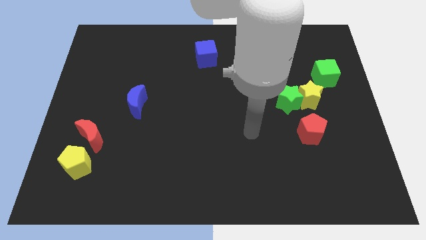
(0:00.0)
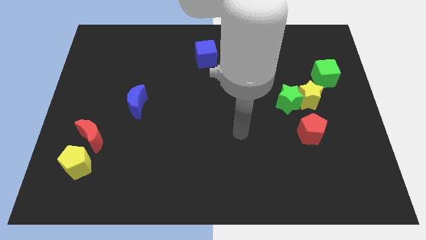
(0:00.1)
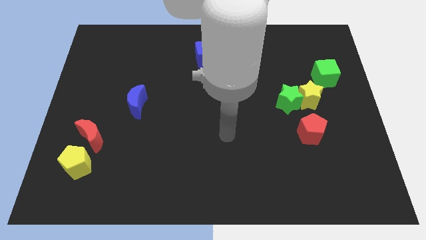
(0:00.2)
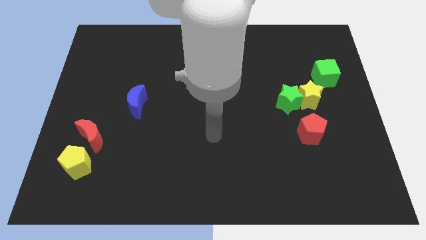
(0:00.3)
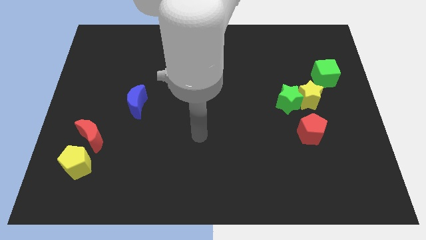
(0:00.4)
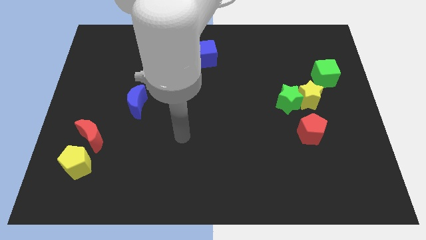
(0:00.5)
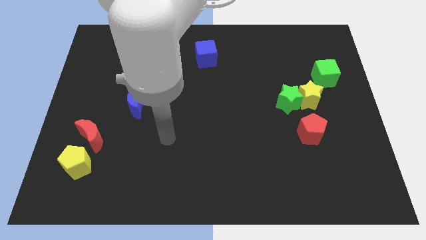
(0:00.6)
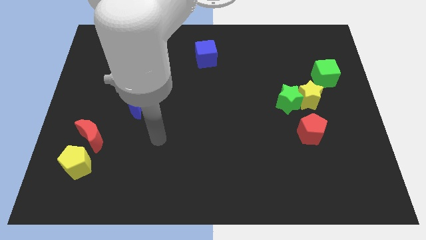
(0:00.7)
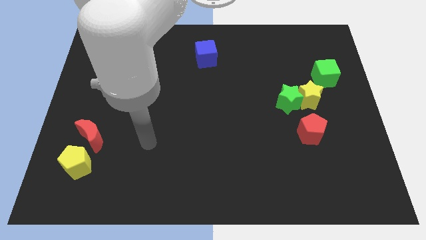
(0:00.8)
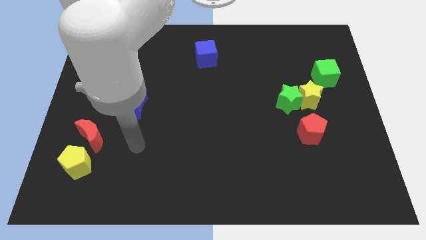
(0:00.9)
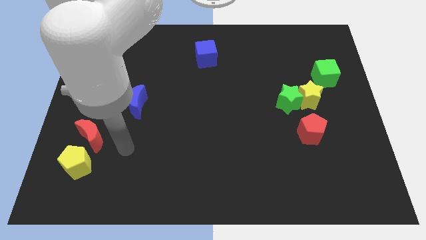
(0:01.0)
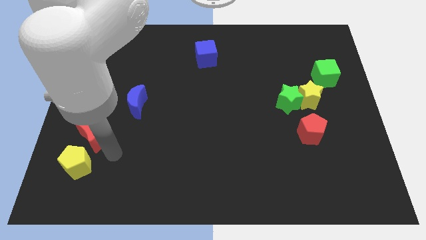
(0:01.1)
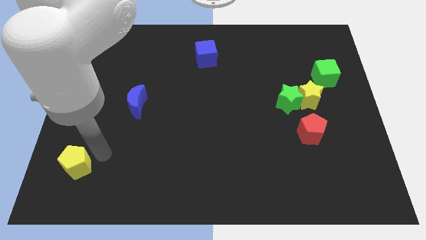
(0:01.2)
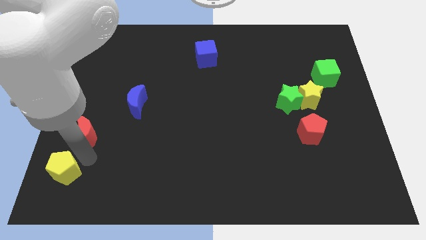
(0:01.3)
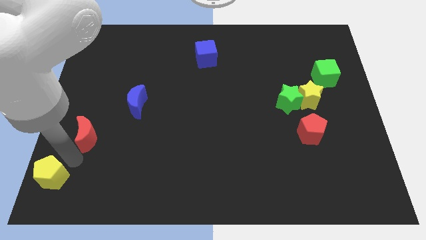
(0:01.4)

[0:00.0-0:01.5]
move the red moon away from the yellow pentagon

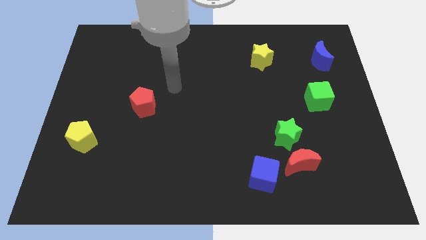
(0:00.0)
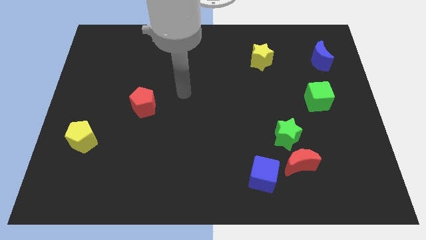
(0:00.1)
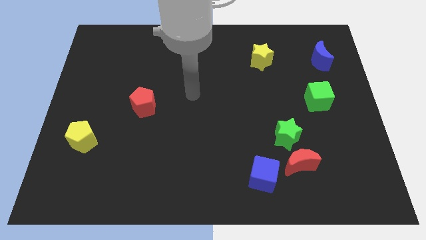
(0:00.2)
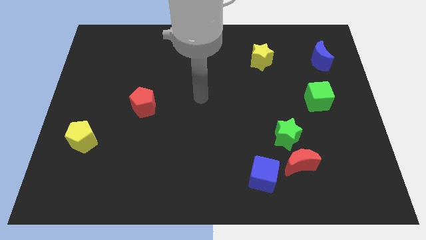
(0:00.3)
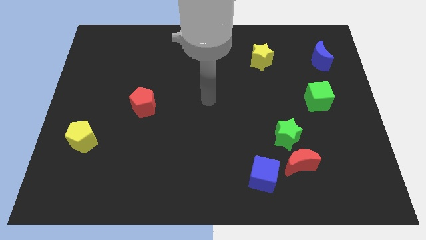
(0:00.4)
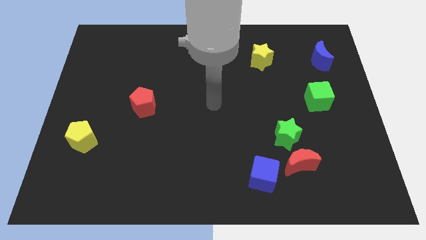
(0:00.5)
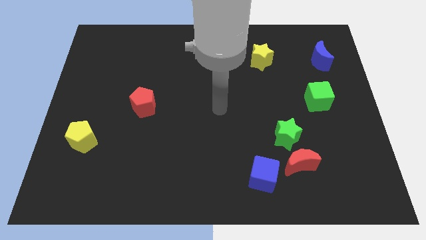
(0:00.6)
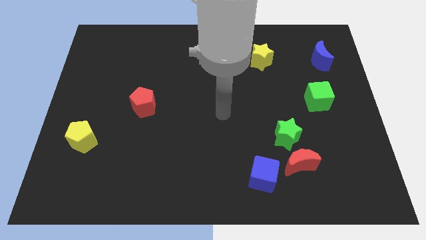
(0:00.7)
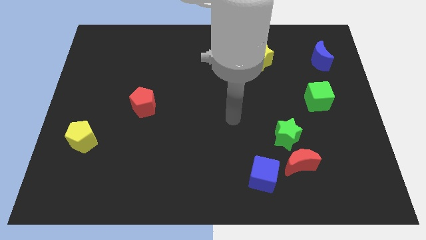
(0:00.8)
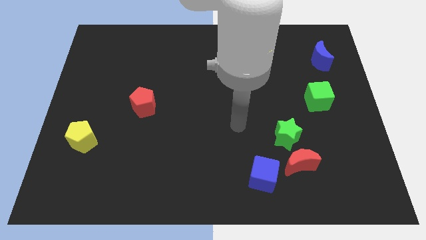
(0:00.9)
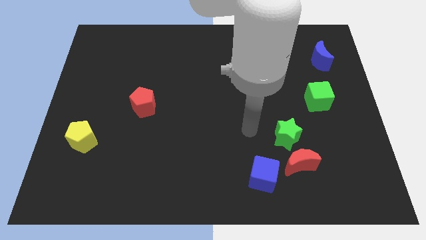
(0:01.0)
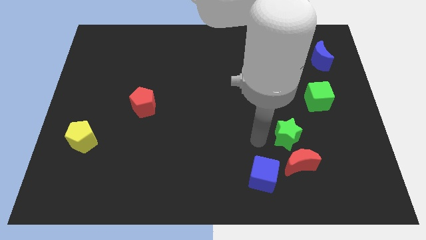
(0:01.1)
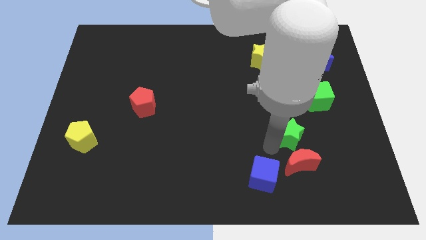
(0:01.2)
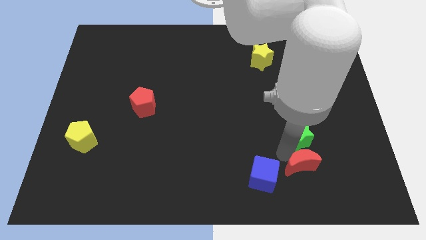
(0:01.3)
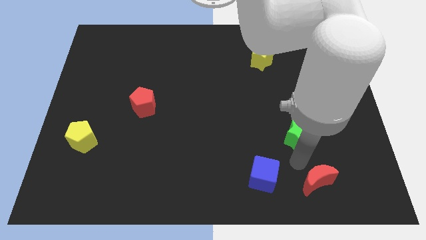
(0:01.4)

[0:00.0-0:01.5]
pull the green star apart from the red moon

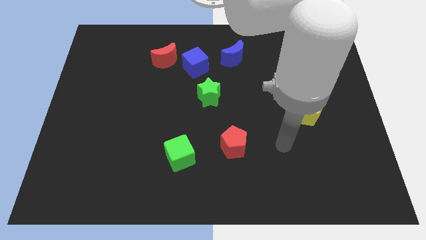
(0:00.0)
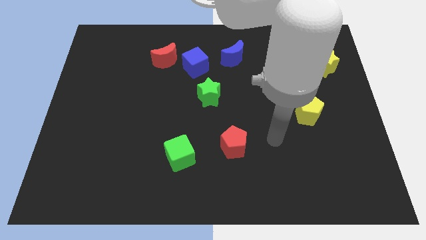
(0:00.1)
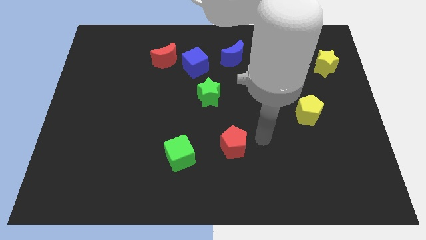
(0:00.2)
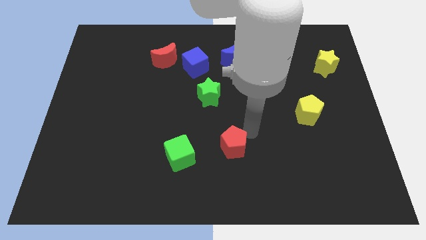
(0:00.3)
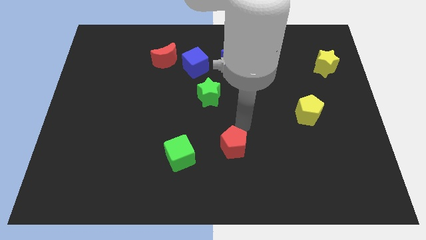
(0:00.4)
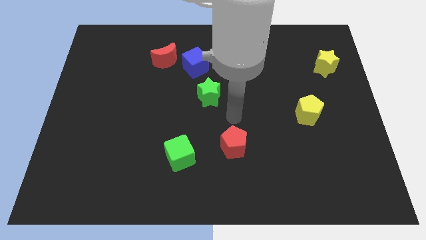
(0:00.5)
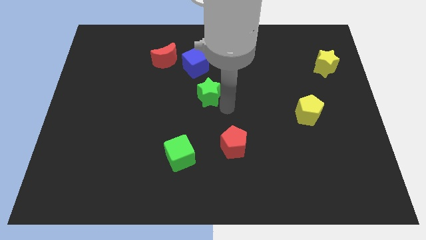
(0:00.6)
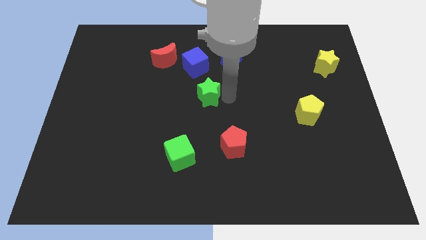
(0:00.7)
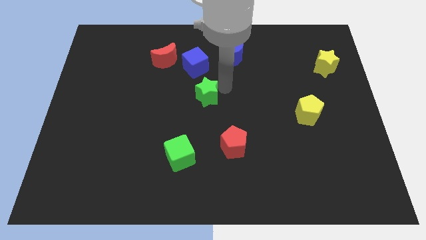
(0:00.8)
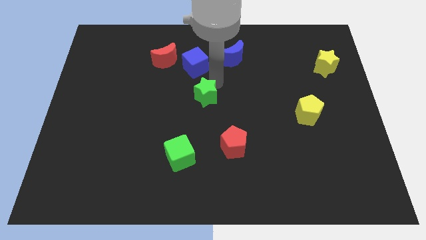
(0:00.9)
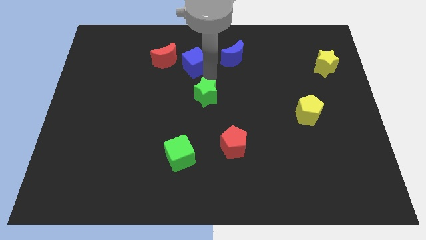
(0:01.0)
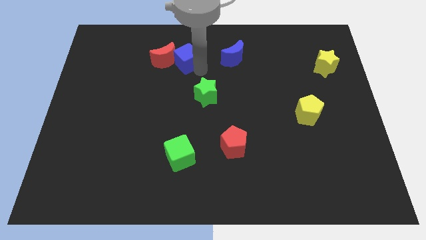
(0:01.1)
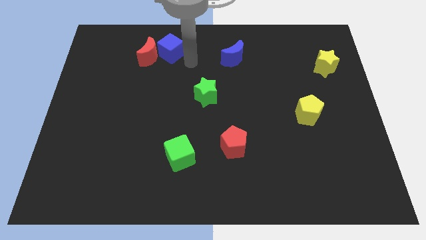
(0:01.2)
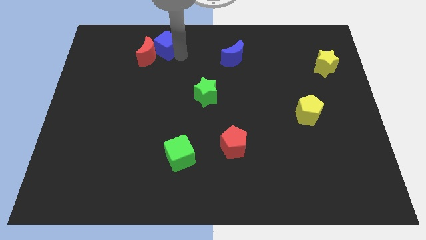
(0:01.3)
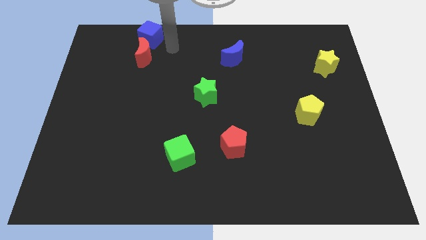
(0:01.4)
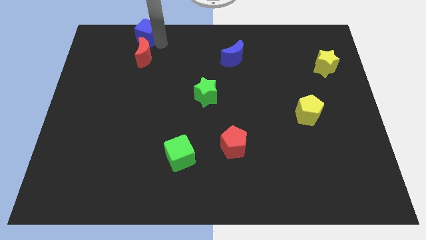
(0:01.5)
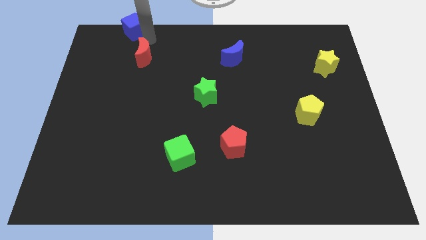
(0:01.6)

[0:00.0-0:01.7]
pull the red moon apart from the blue cube

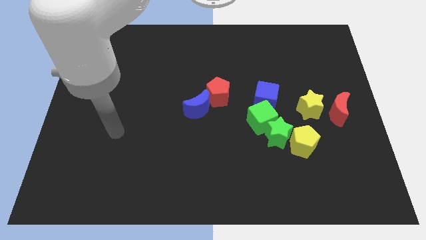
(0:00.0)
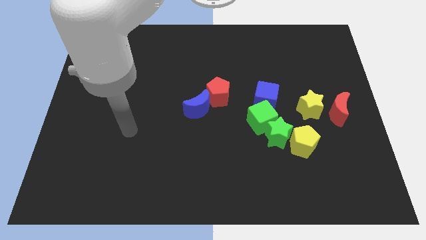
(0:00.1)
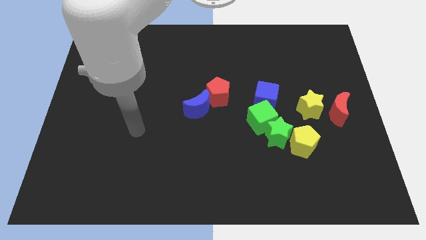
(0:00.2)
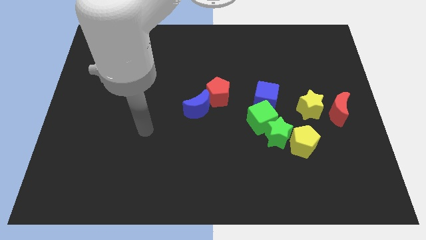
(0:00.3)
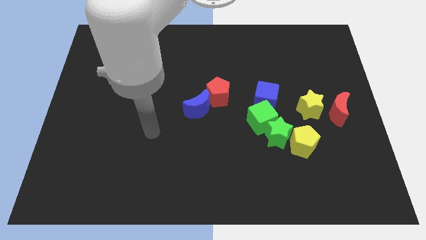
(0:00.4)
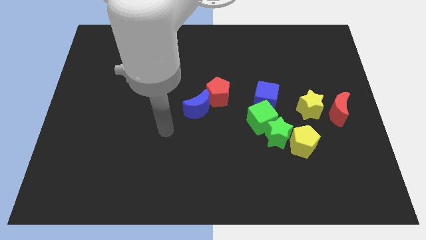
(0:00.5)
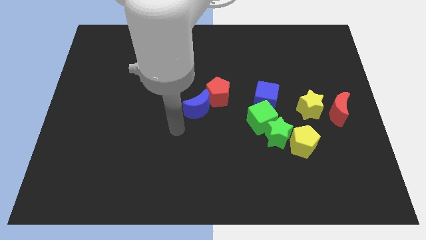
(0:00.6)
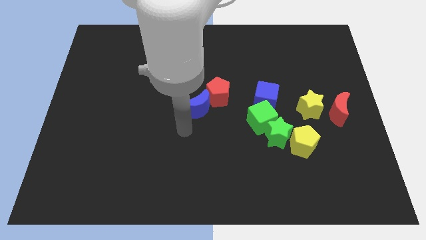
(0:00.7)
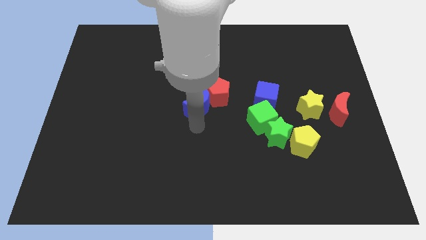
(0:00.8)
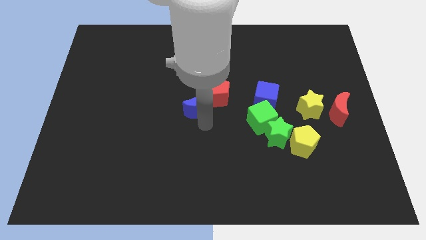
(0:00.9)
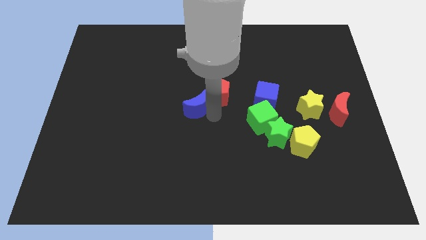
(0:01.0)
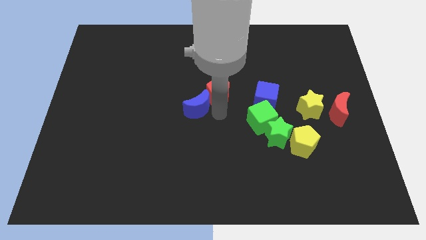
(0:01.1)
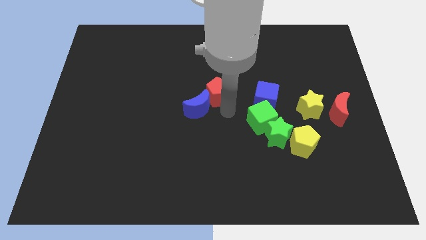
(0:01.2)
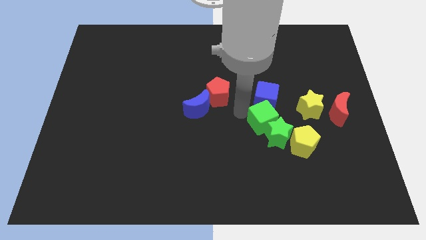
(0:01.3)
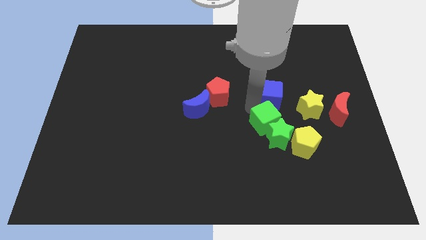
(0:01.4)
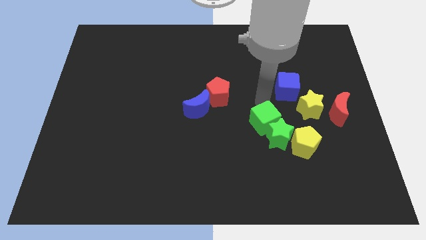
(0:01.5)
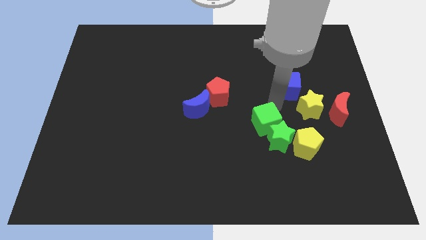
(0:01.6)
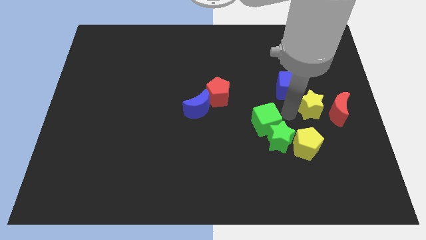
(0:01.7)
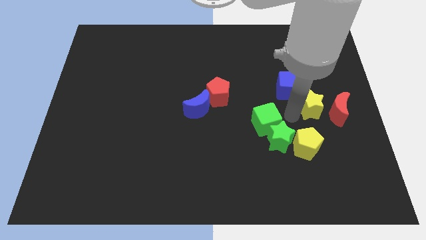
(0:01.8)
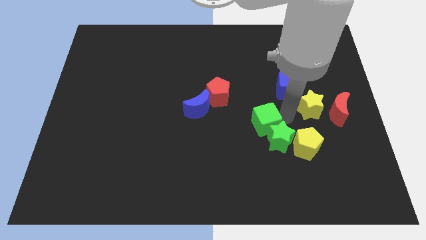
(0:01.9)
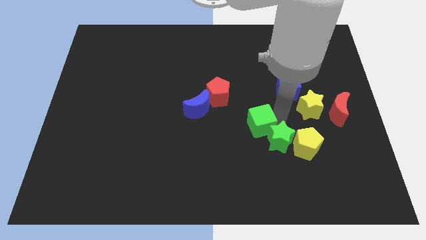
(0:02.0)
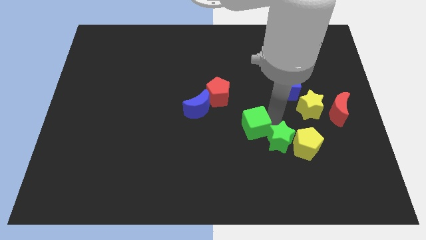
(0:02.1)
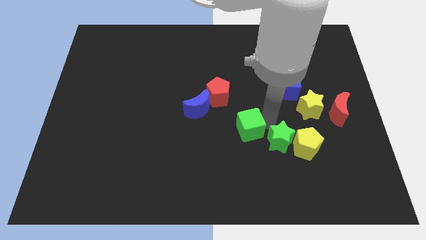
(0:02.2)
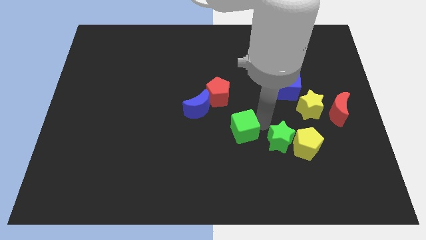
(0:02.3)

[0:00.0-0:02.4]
pull the green cube apart from the green star and blue cube

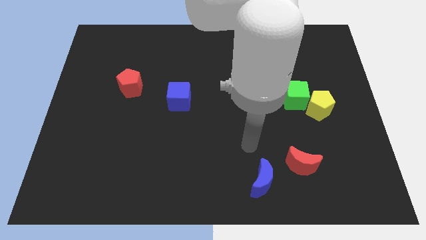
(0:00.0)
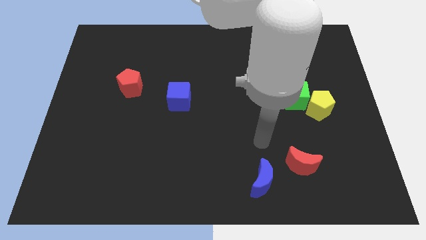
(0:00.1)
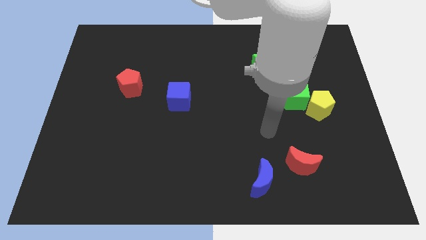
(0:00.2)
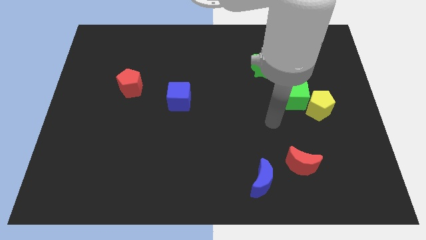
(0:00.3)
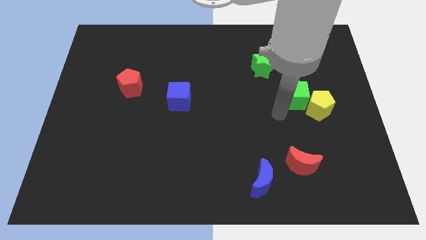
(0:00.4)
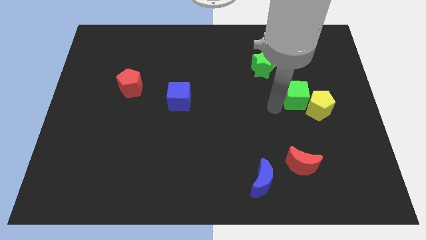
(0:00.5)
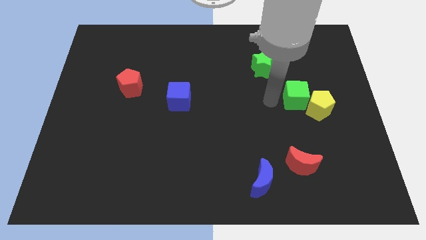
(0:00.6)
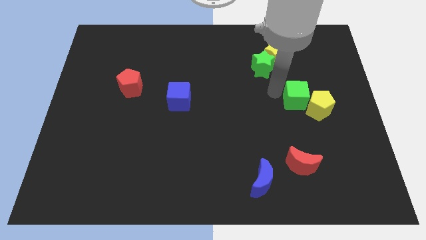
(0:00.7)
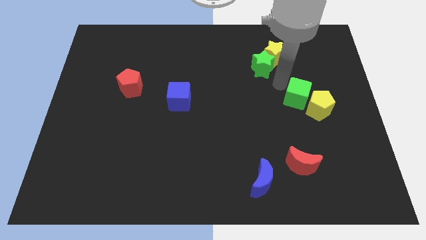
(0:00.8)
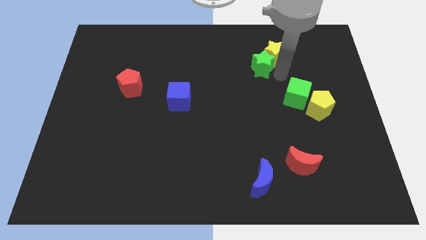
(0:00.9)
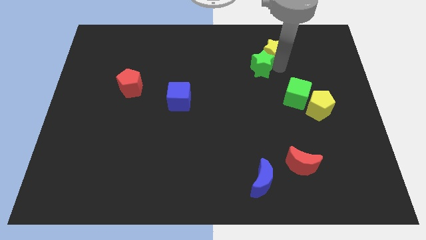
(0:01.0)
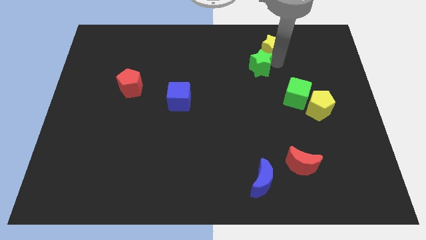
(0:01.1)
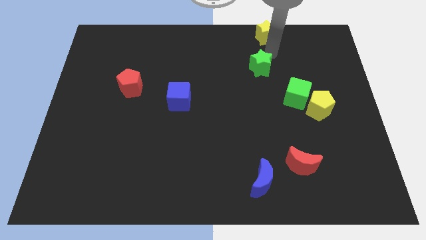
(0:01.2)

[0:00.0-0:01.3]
separate the green star from the yellow star

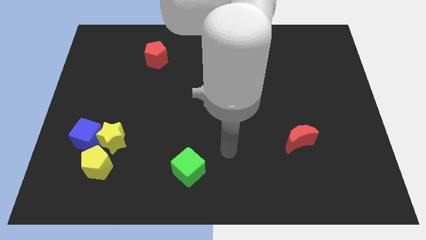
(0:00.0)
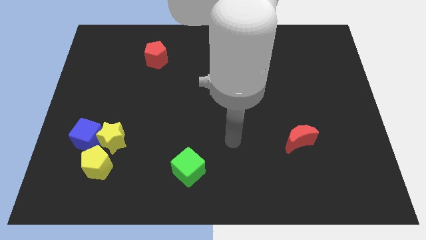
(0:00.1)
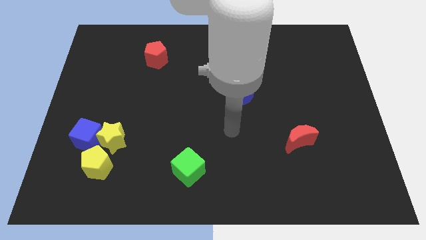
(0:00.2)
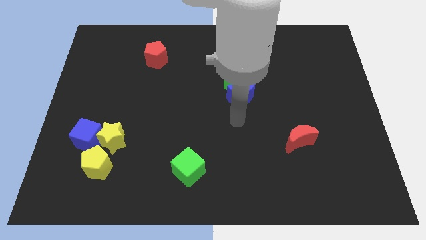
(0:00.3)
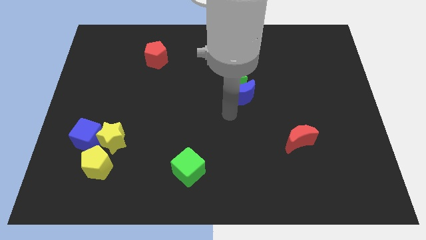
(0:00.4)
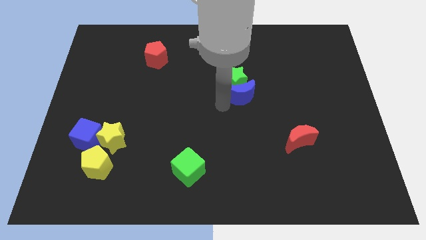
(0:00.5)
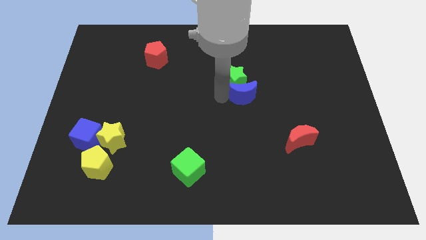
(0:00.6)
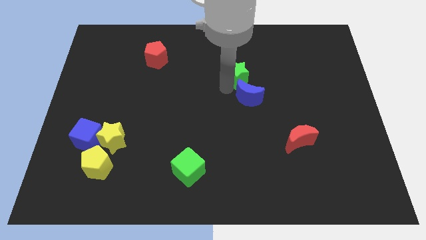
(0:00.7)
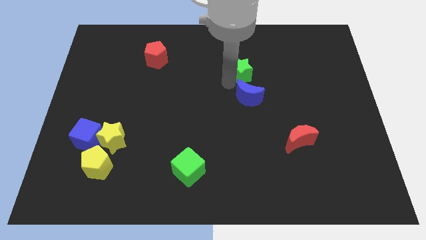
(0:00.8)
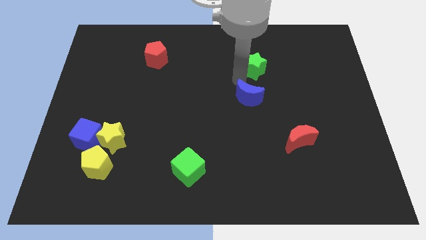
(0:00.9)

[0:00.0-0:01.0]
move the blue moon away from the green star
